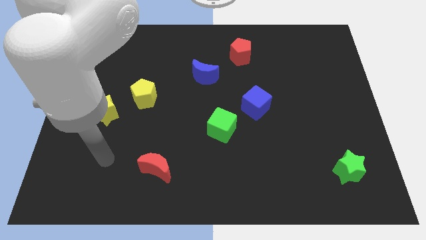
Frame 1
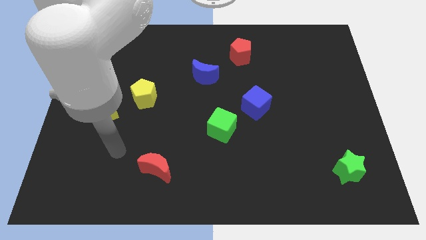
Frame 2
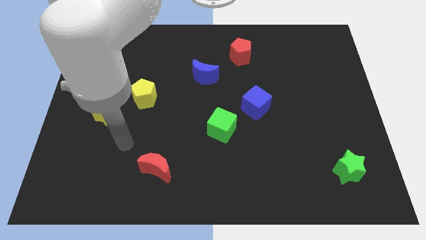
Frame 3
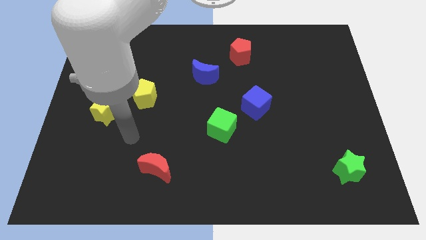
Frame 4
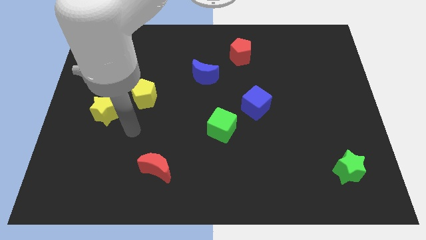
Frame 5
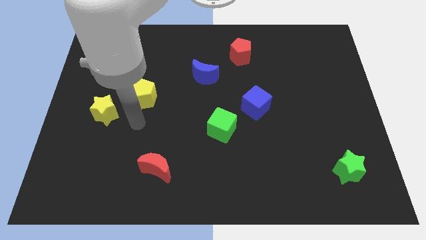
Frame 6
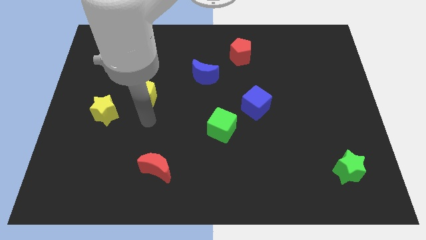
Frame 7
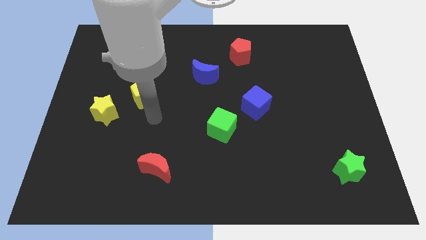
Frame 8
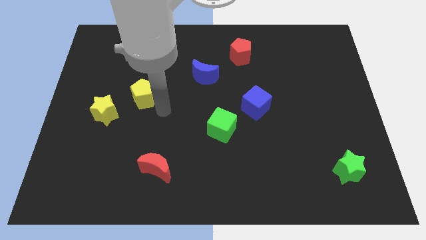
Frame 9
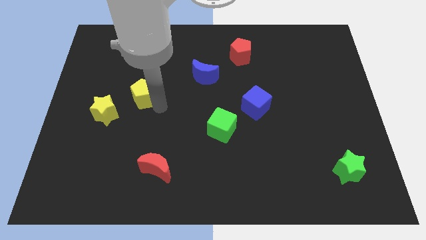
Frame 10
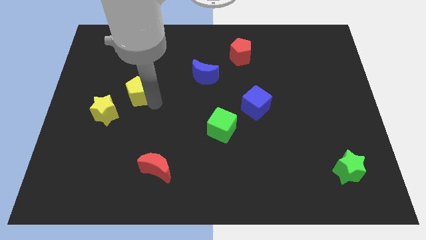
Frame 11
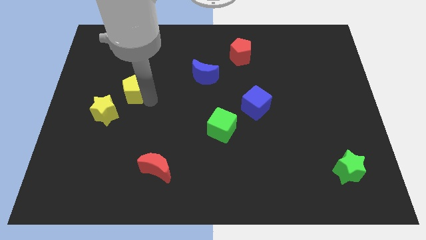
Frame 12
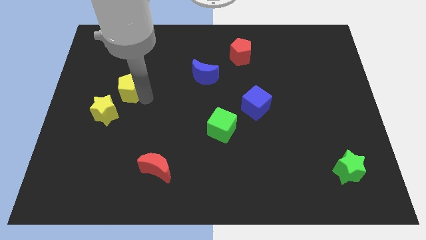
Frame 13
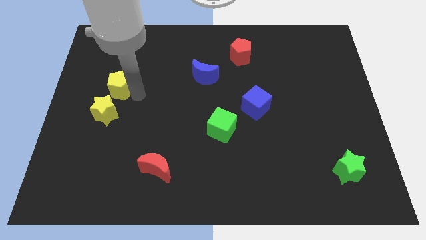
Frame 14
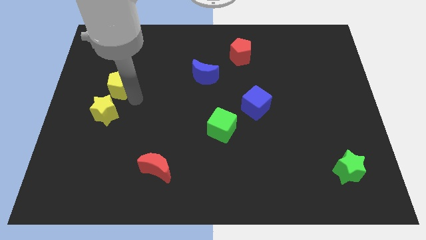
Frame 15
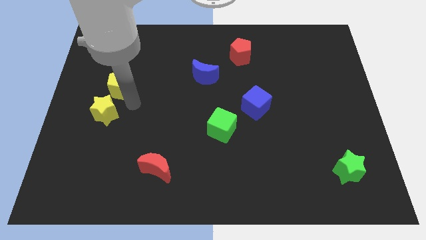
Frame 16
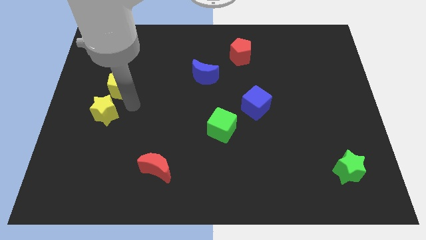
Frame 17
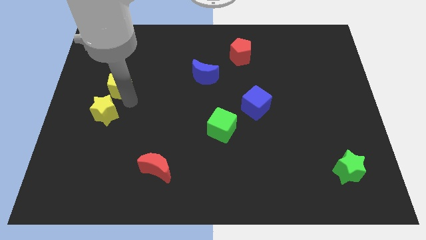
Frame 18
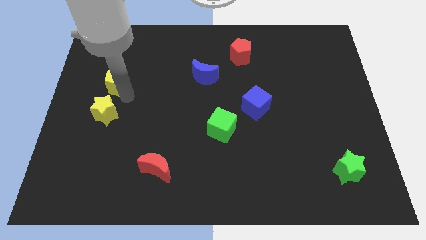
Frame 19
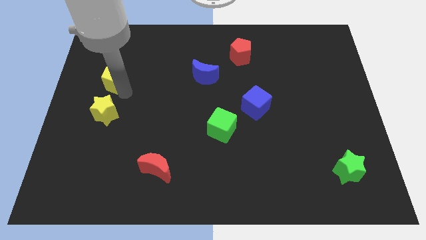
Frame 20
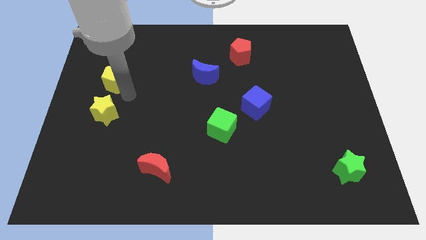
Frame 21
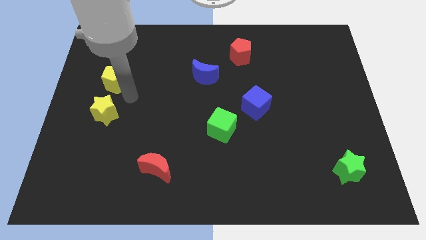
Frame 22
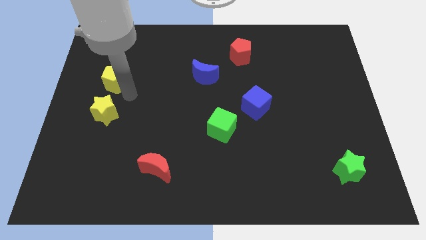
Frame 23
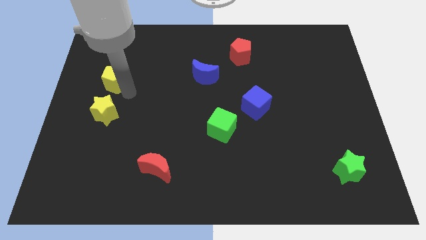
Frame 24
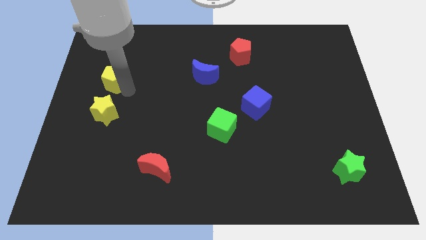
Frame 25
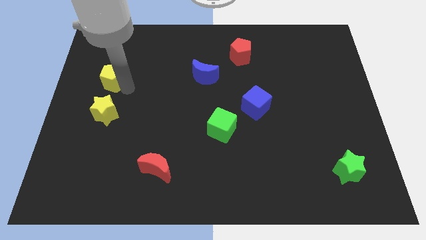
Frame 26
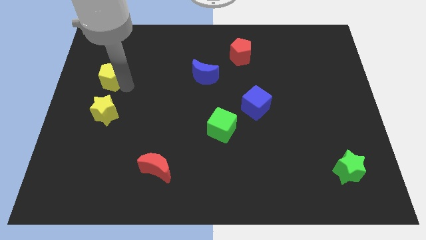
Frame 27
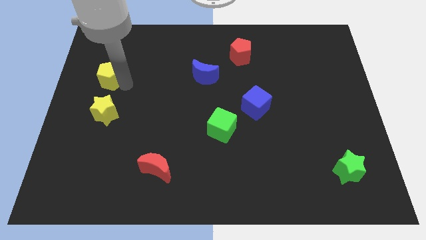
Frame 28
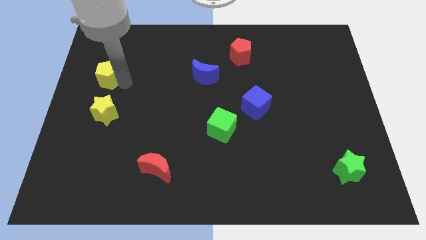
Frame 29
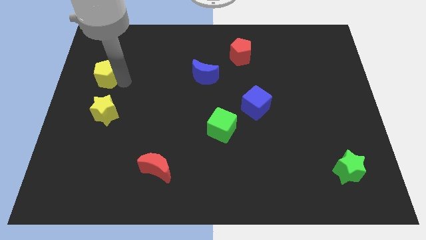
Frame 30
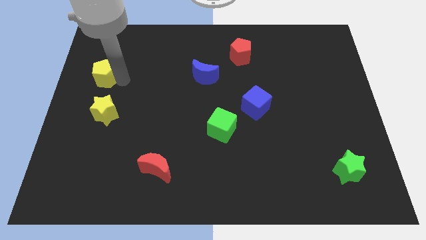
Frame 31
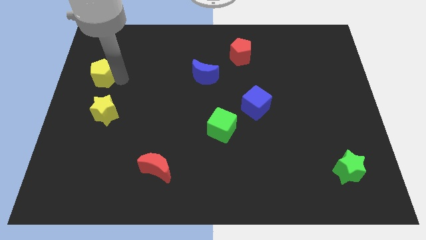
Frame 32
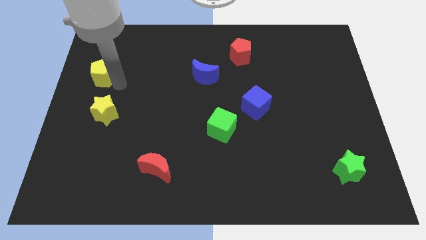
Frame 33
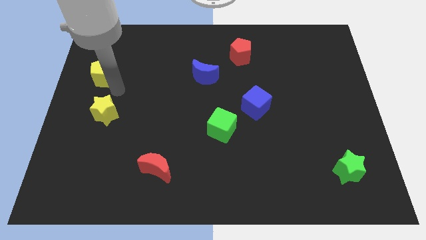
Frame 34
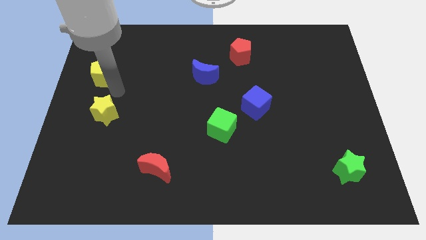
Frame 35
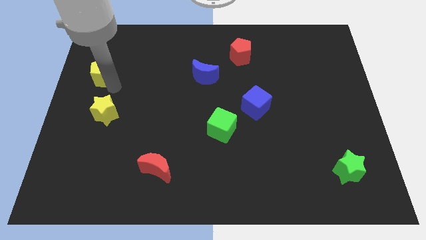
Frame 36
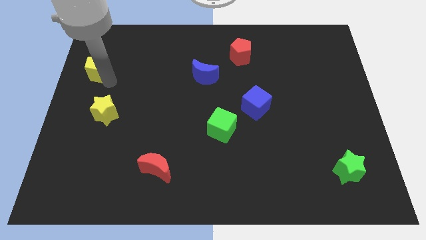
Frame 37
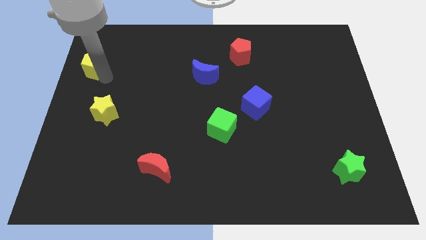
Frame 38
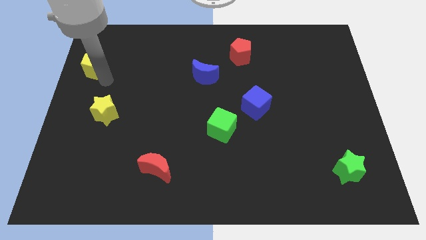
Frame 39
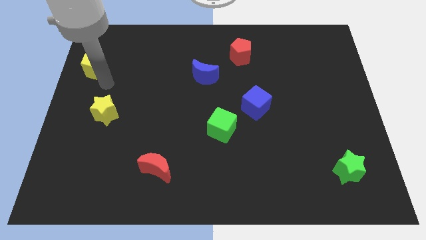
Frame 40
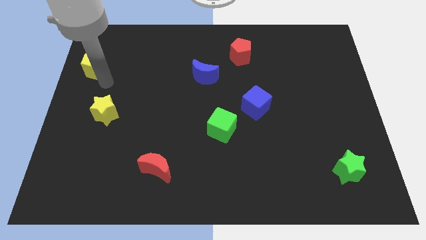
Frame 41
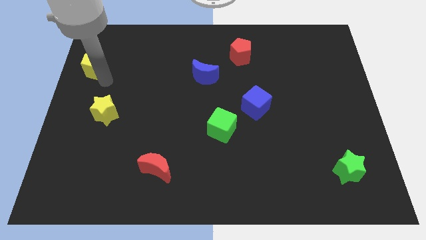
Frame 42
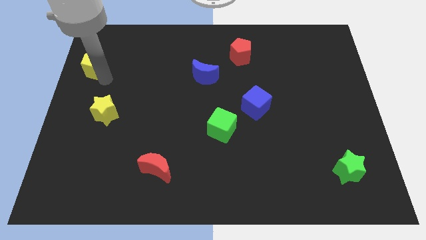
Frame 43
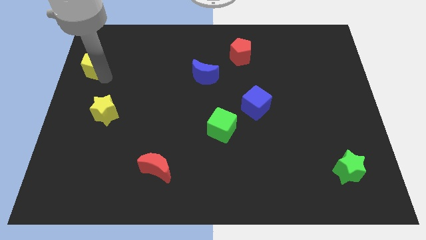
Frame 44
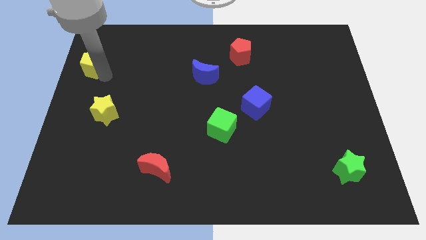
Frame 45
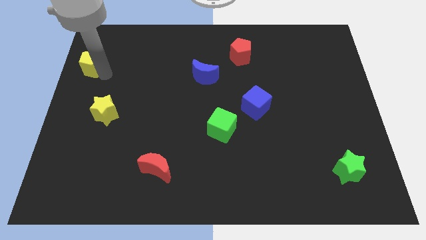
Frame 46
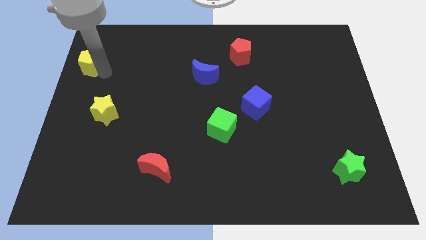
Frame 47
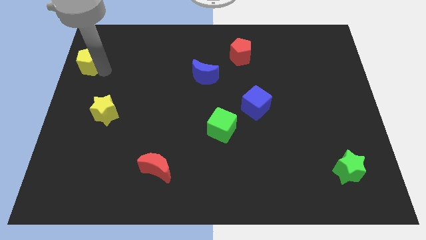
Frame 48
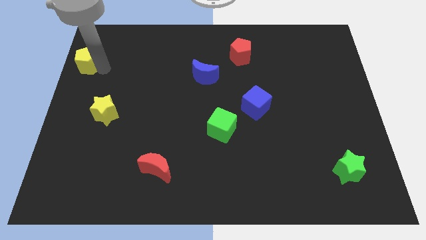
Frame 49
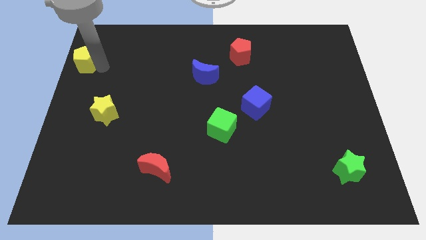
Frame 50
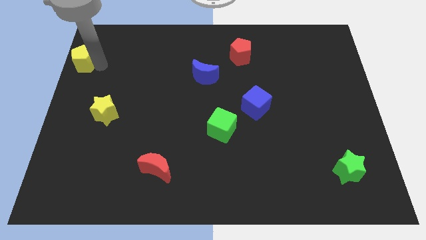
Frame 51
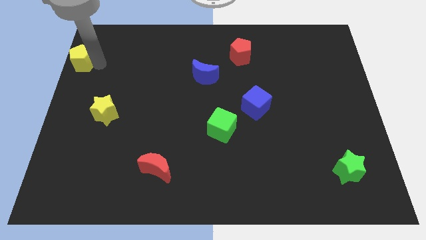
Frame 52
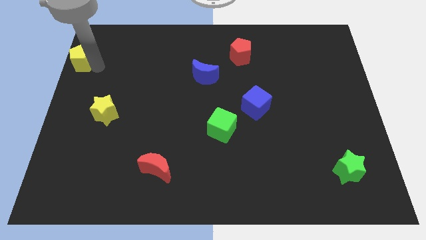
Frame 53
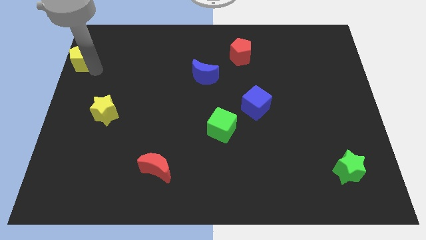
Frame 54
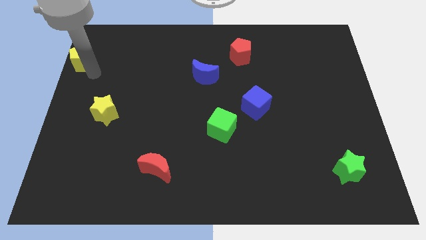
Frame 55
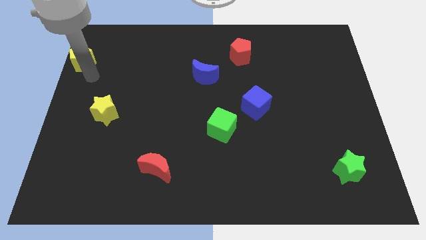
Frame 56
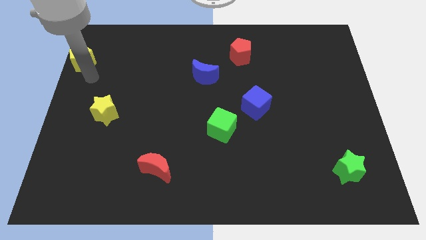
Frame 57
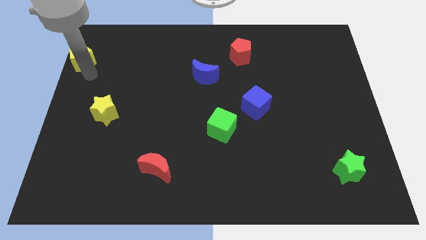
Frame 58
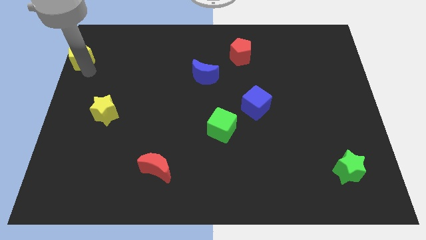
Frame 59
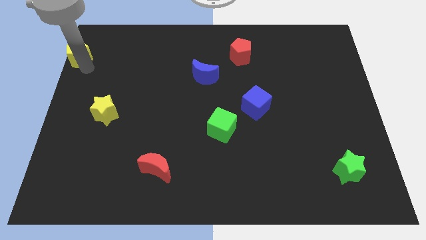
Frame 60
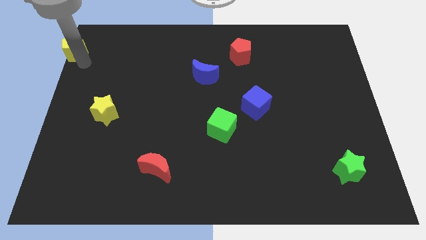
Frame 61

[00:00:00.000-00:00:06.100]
put the yellow pentagon to the top left of the board

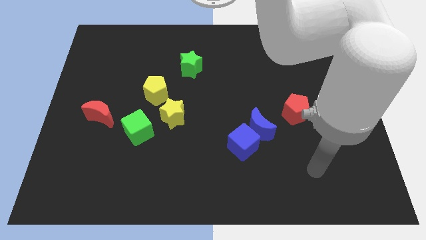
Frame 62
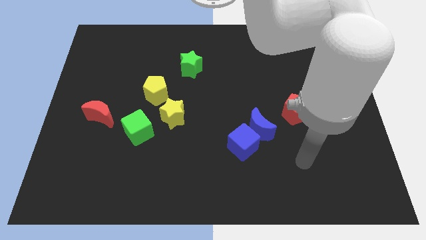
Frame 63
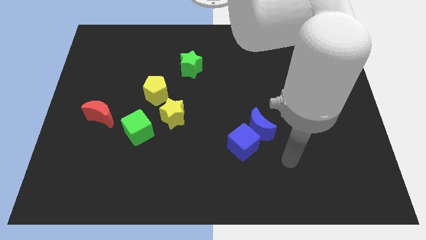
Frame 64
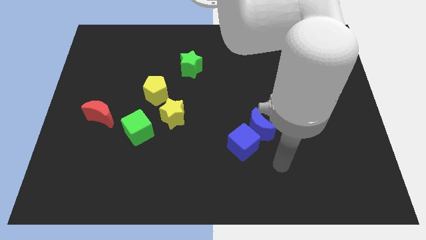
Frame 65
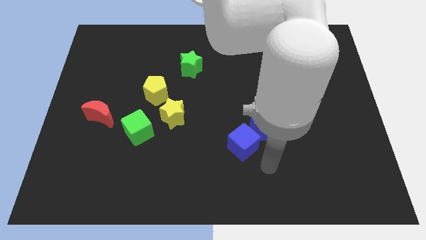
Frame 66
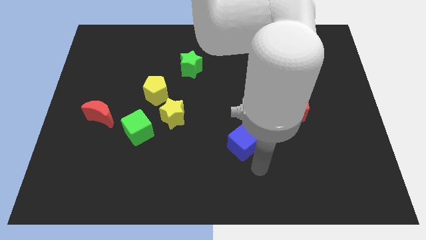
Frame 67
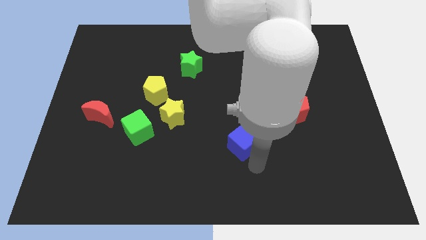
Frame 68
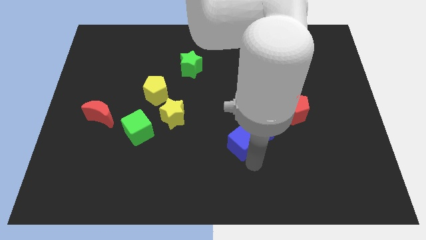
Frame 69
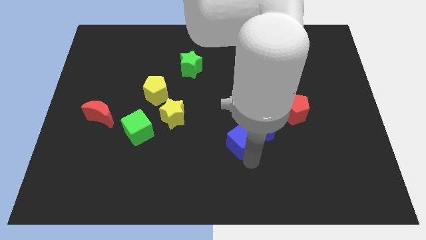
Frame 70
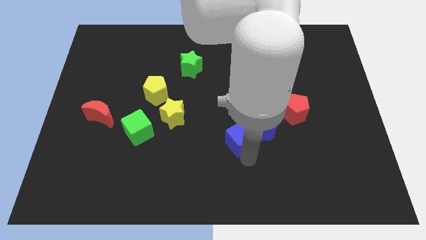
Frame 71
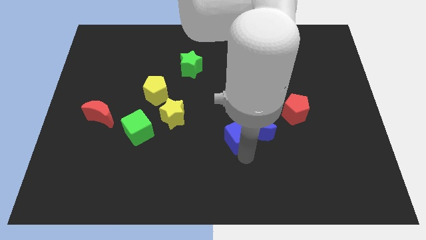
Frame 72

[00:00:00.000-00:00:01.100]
move the blue cube to the middle
